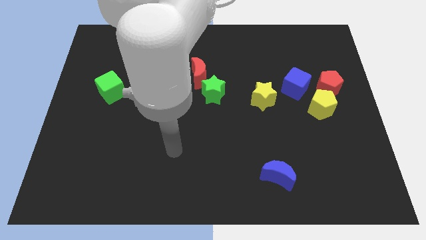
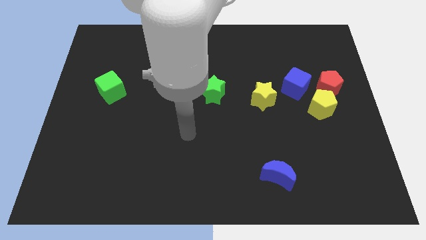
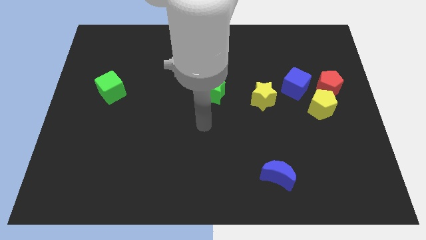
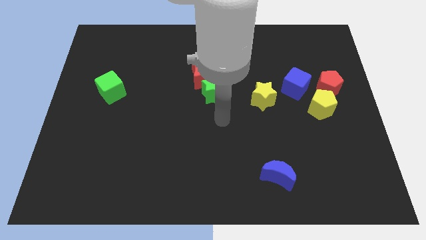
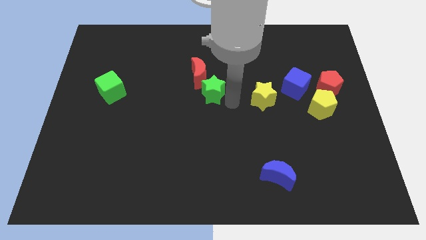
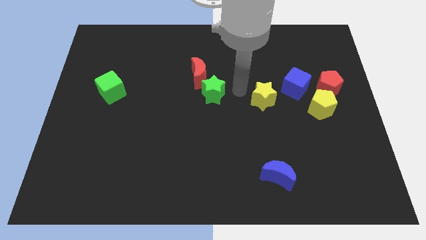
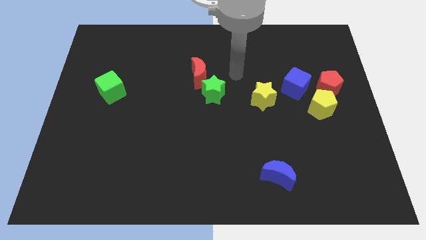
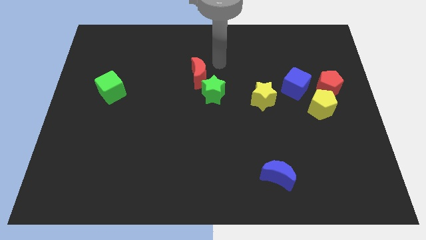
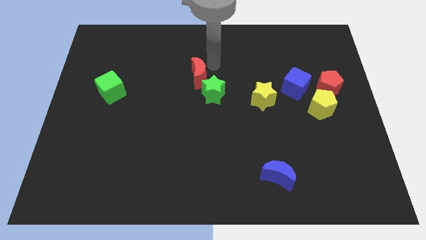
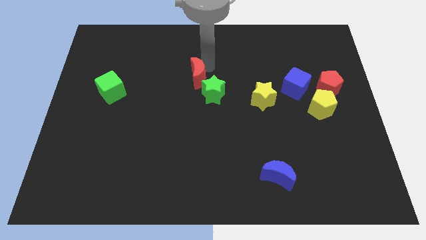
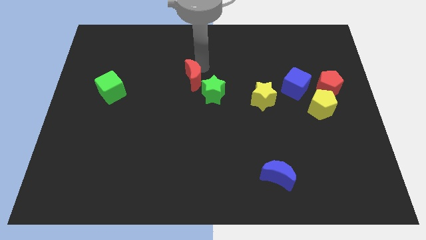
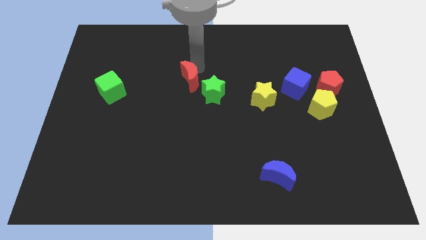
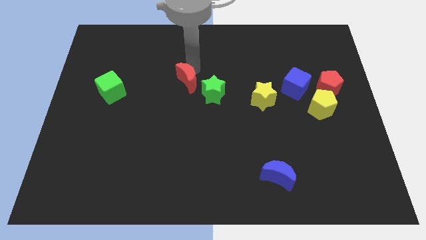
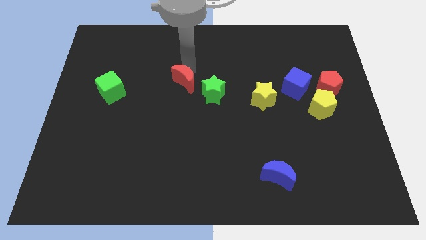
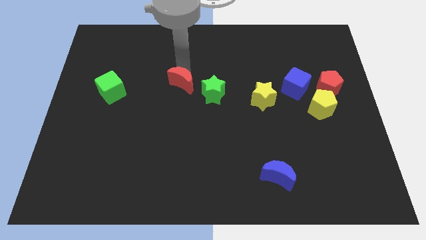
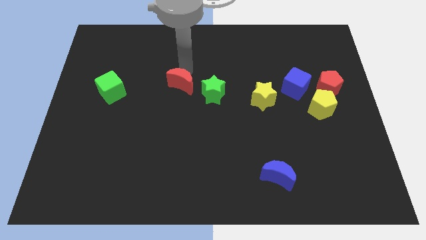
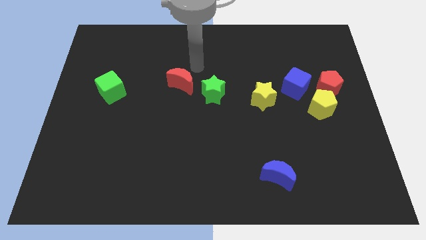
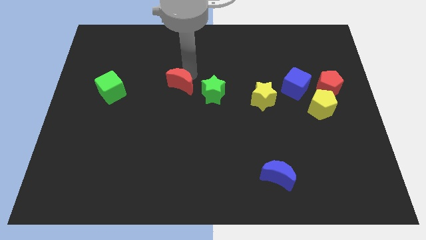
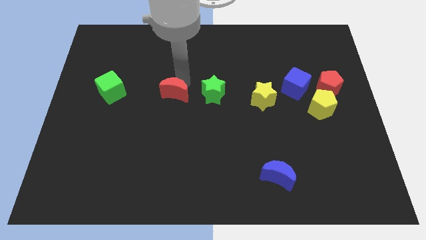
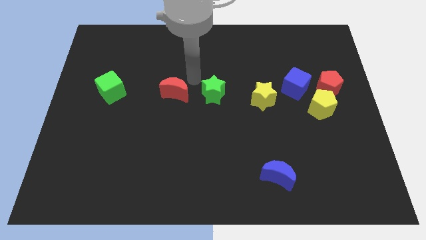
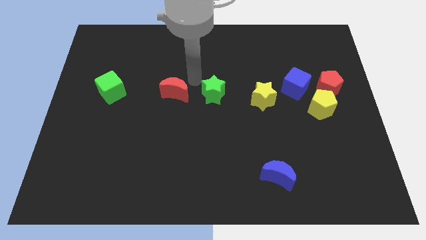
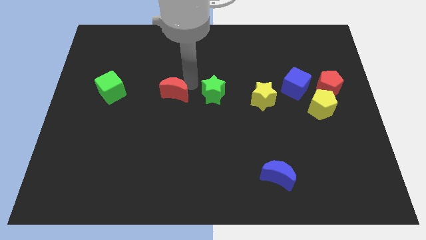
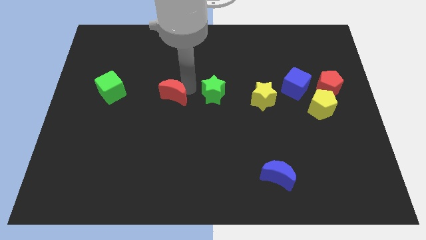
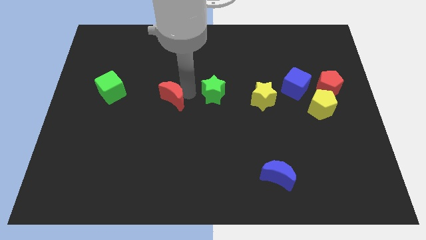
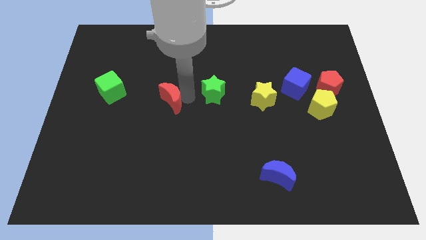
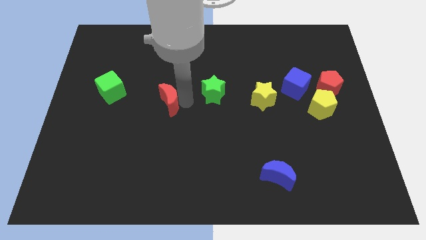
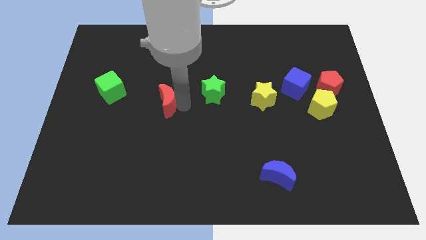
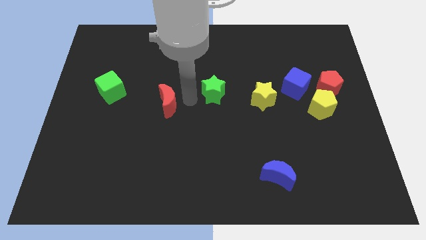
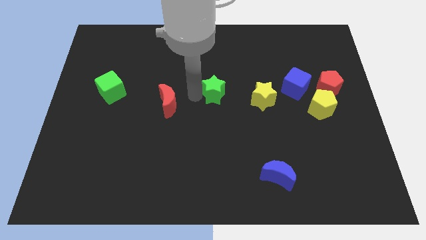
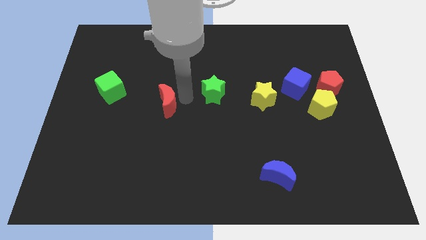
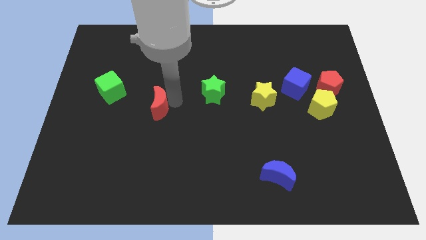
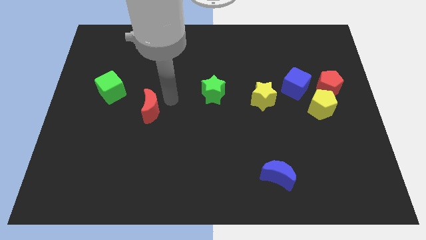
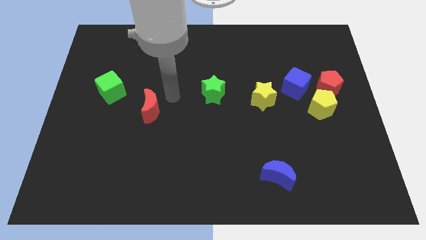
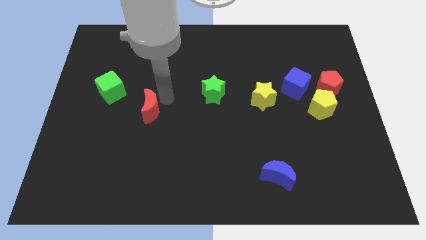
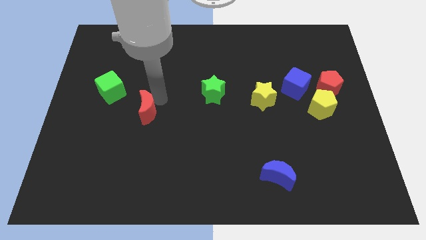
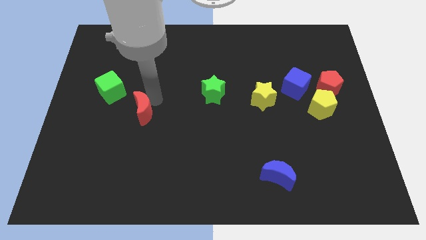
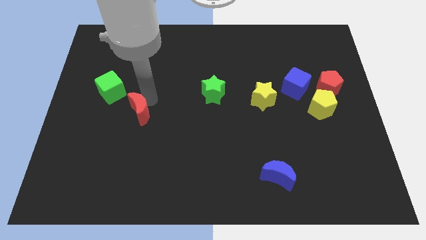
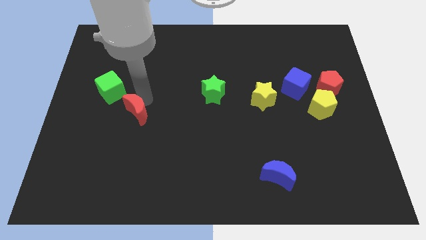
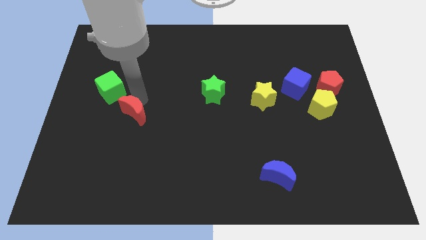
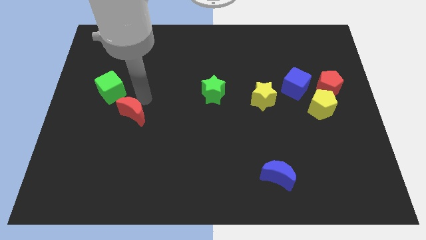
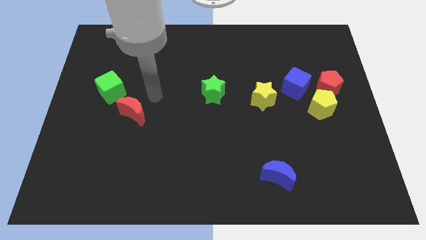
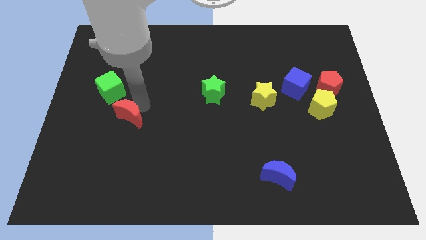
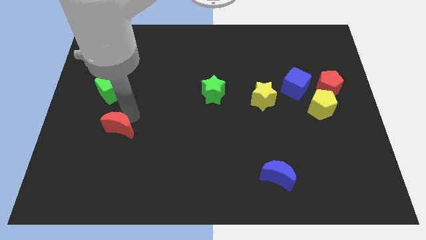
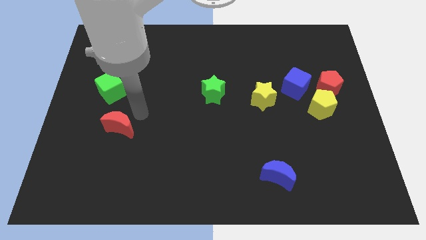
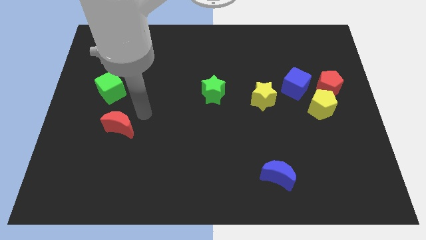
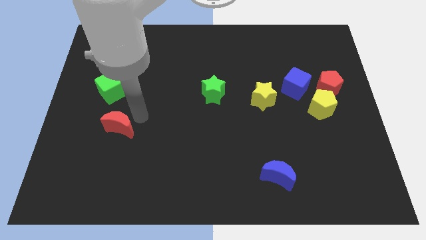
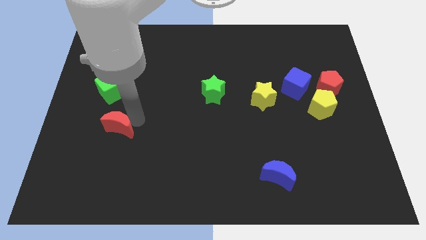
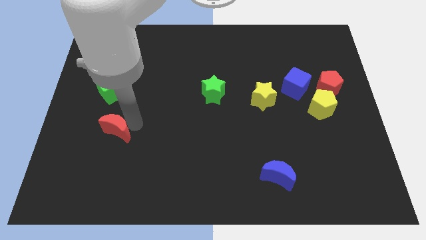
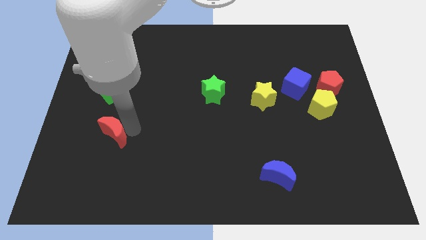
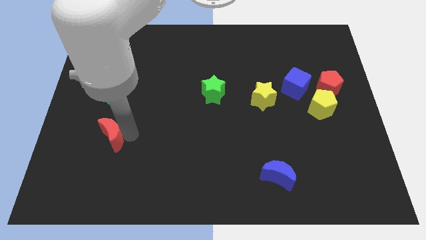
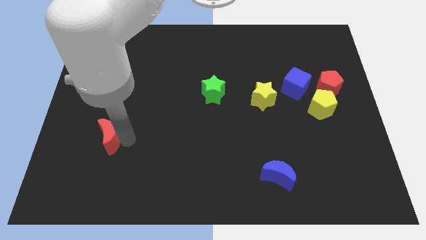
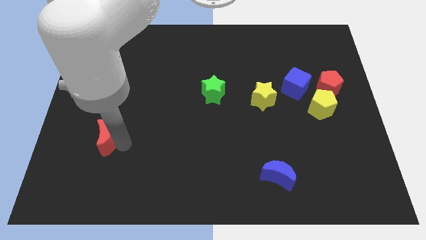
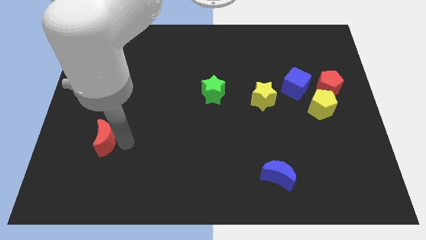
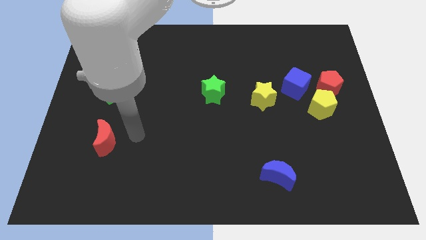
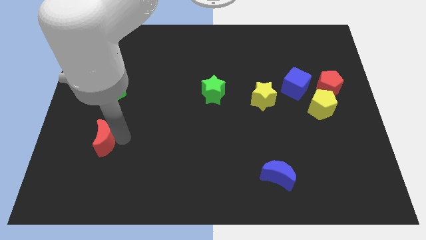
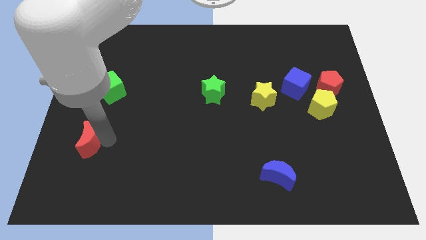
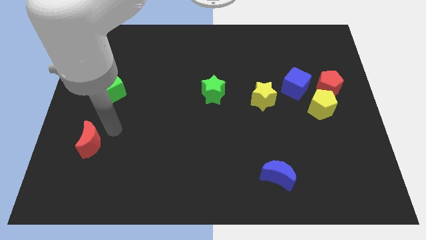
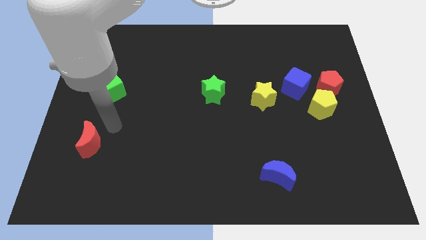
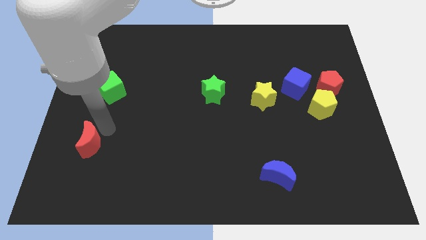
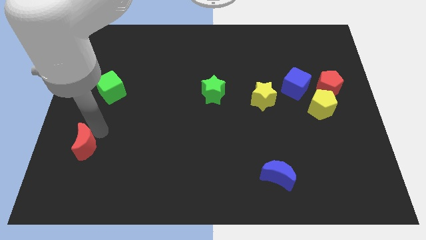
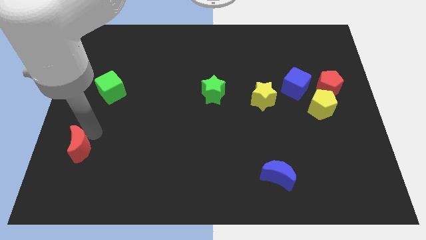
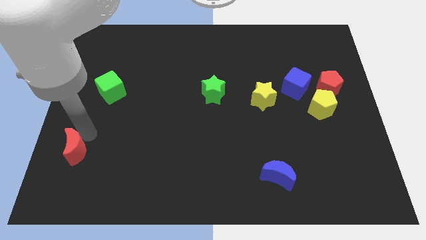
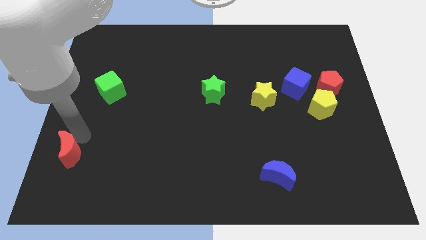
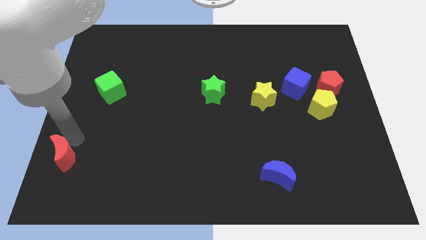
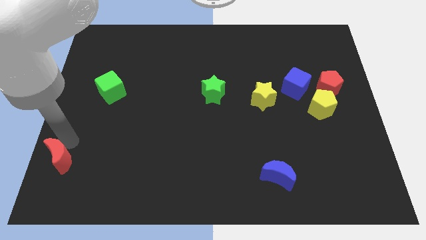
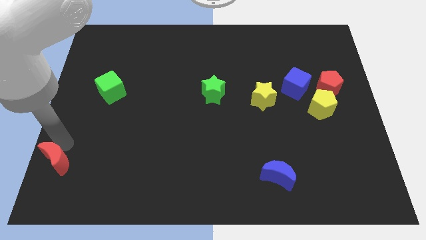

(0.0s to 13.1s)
put the red moon to the bottom left
